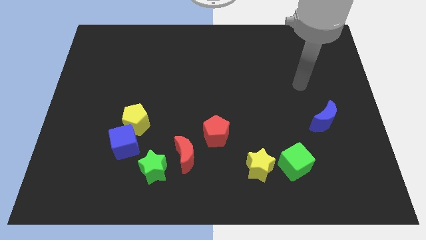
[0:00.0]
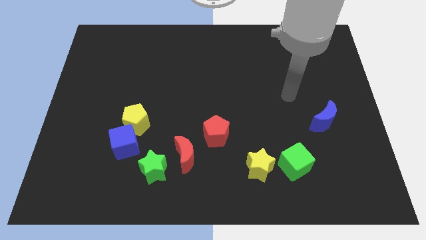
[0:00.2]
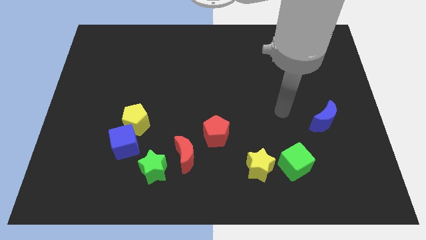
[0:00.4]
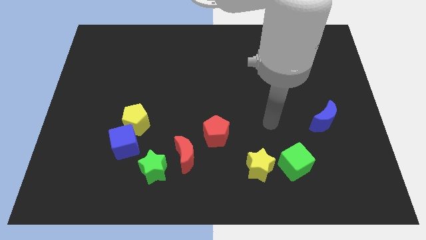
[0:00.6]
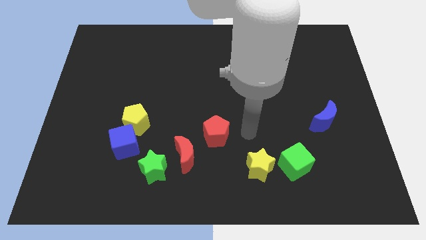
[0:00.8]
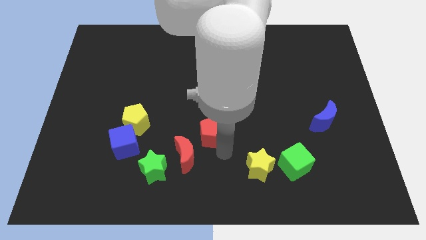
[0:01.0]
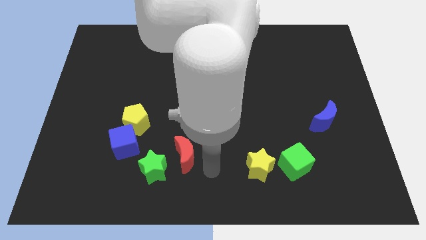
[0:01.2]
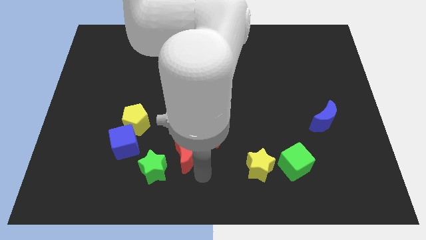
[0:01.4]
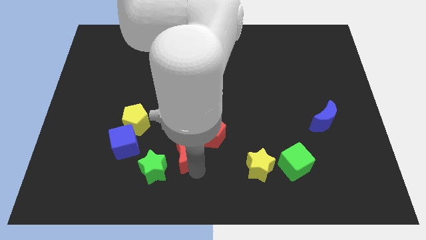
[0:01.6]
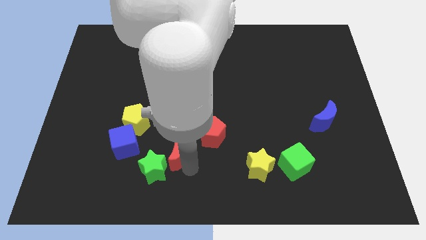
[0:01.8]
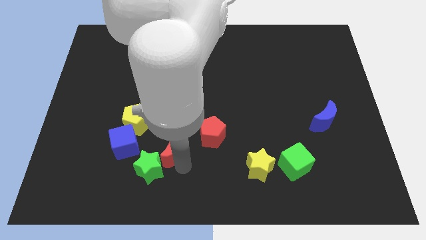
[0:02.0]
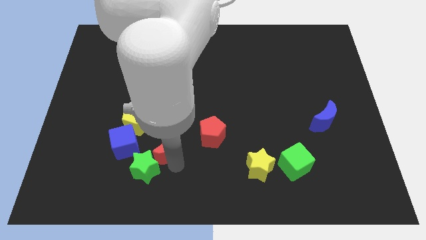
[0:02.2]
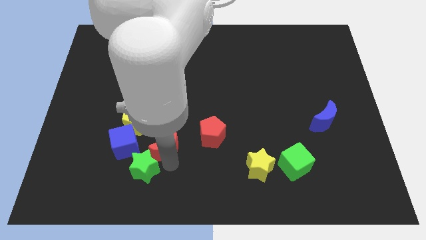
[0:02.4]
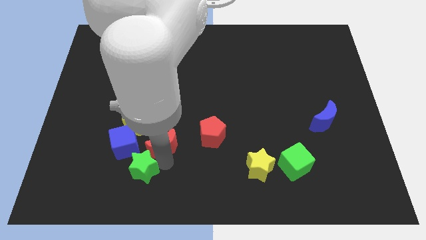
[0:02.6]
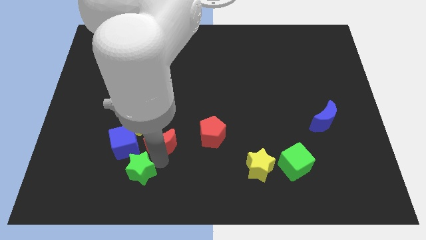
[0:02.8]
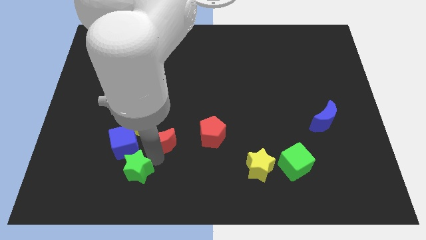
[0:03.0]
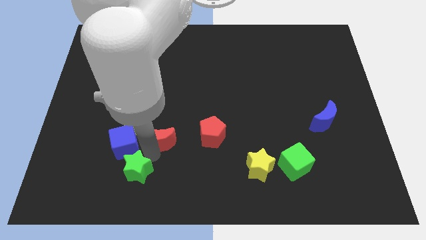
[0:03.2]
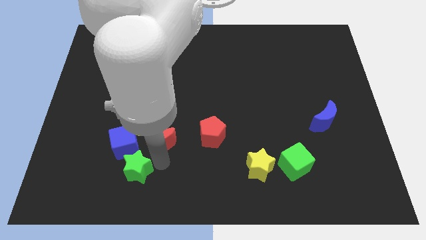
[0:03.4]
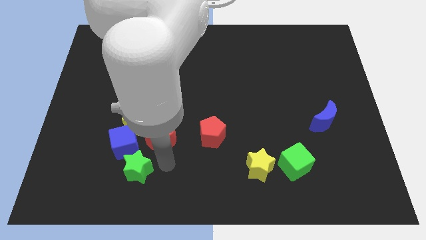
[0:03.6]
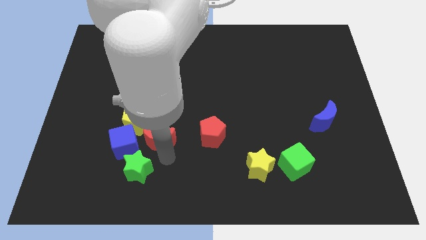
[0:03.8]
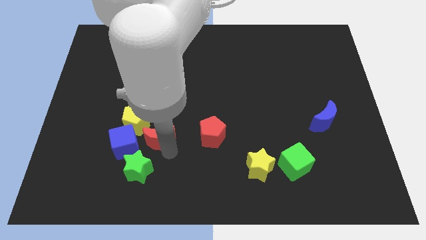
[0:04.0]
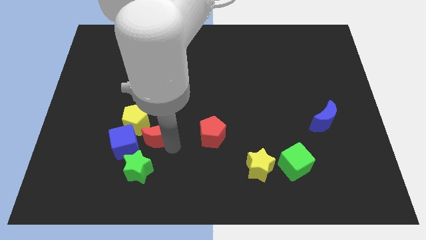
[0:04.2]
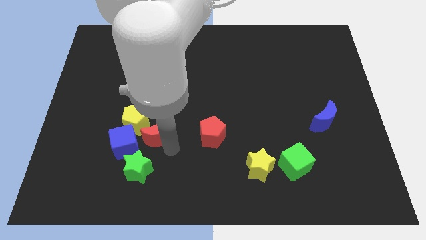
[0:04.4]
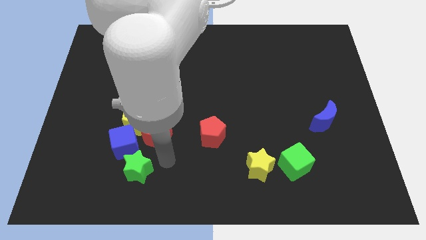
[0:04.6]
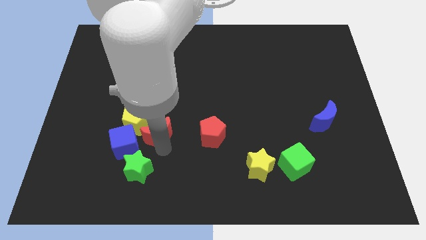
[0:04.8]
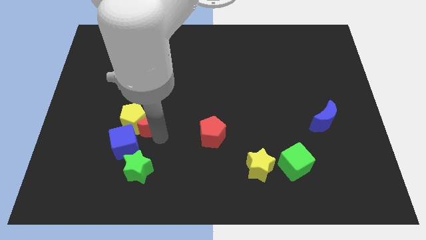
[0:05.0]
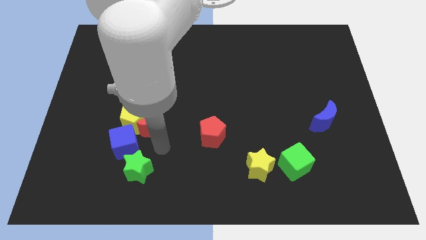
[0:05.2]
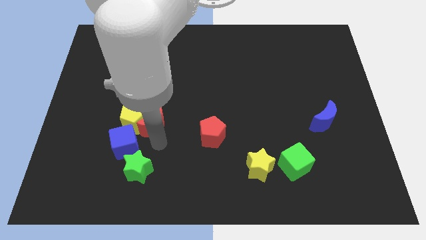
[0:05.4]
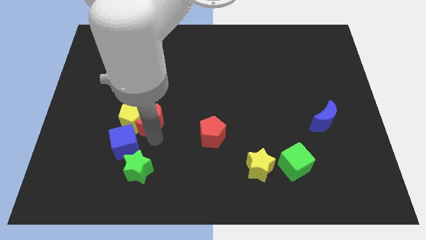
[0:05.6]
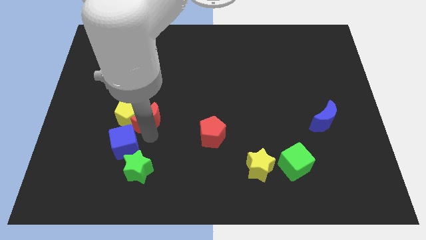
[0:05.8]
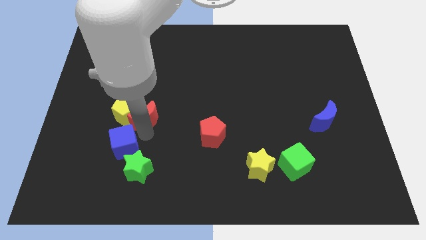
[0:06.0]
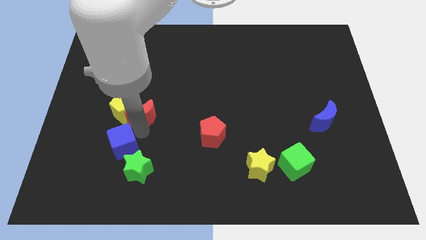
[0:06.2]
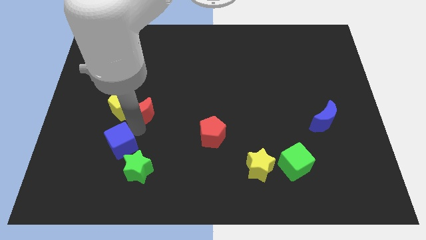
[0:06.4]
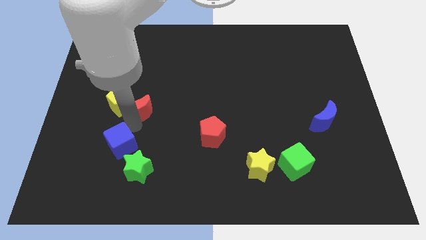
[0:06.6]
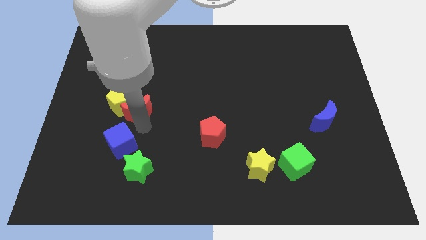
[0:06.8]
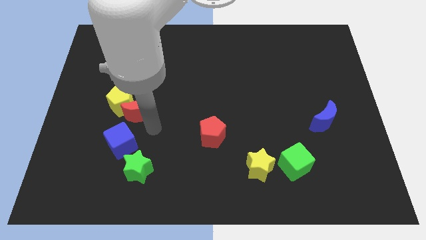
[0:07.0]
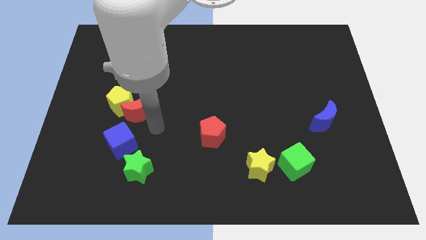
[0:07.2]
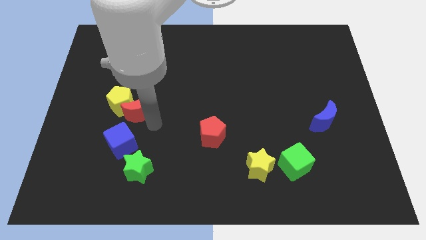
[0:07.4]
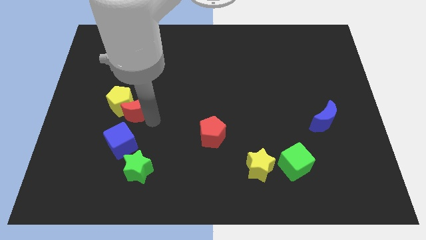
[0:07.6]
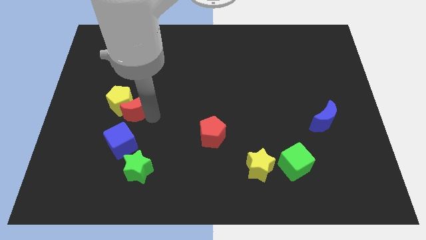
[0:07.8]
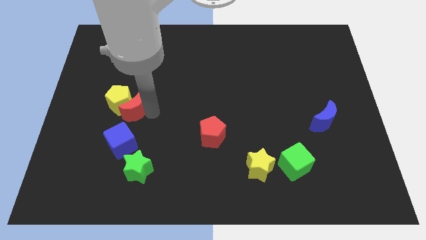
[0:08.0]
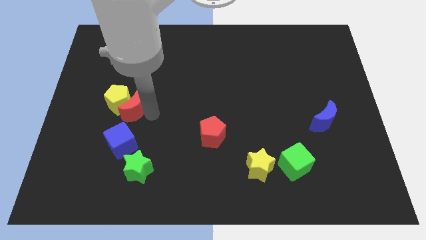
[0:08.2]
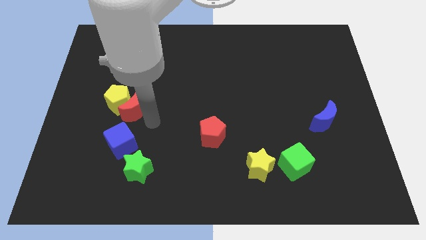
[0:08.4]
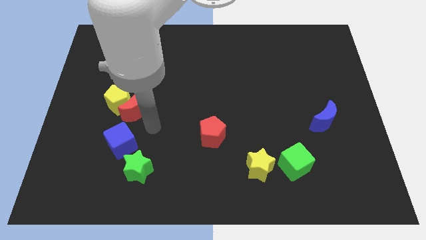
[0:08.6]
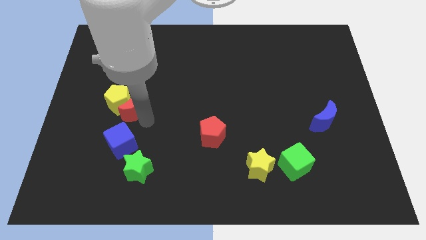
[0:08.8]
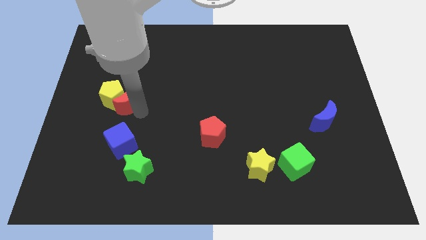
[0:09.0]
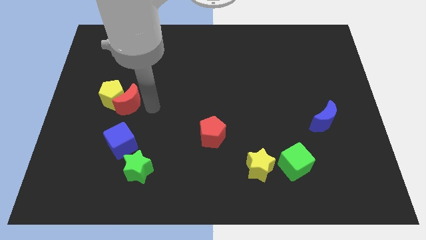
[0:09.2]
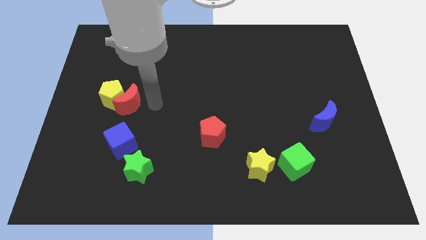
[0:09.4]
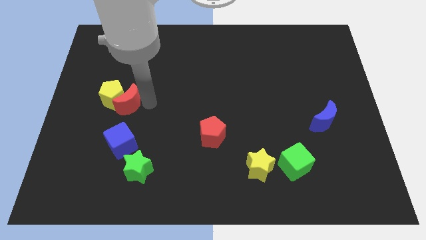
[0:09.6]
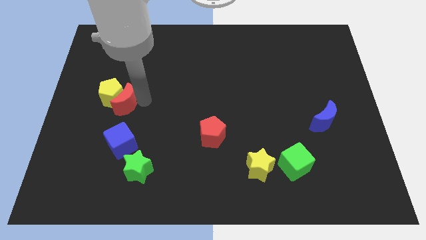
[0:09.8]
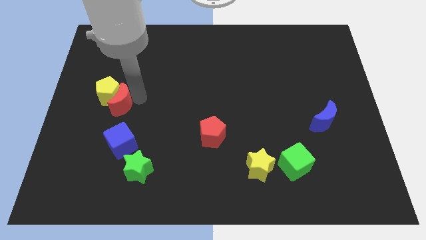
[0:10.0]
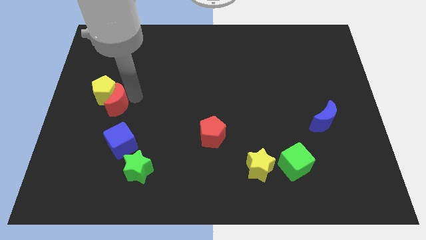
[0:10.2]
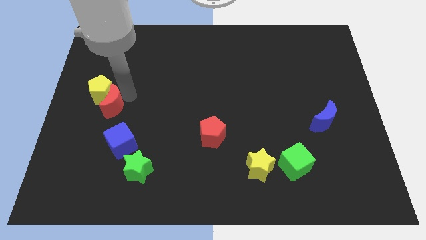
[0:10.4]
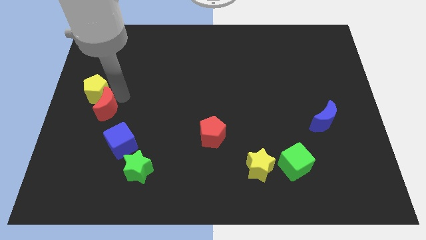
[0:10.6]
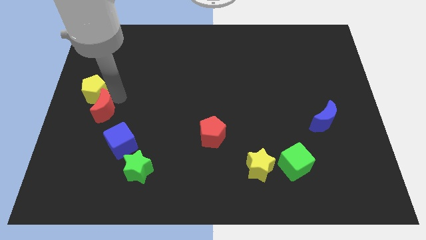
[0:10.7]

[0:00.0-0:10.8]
move the red moon to the center left
